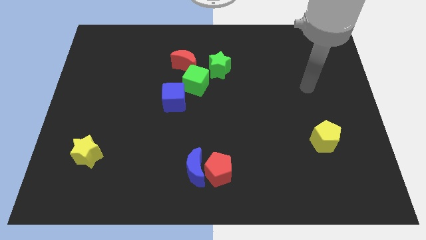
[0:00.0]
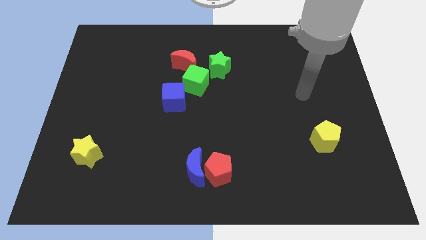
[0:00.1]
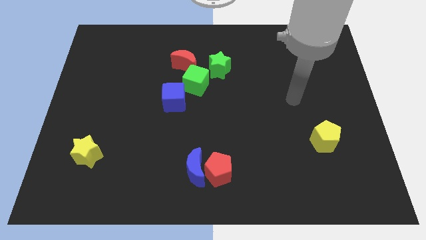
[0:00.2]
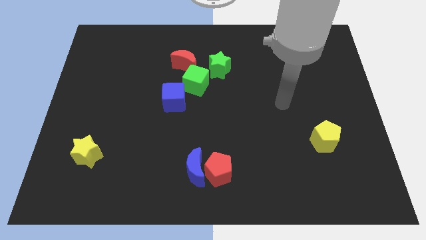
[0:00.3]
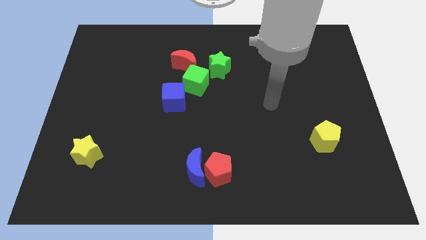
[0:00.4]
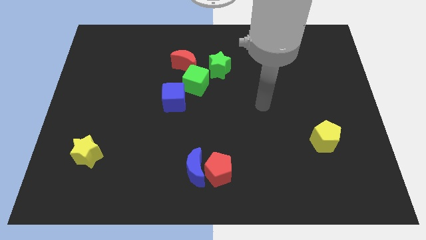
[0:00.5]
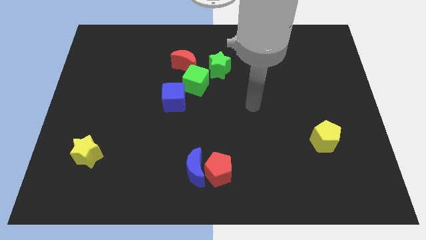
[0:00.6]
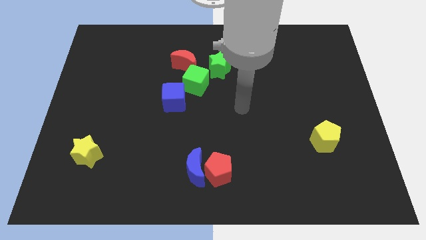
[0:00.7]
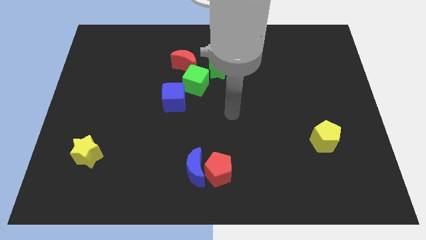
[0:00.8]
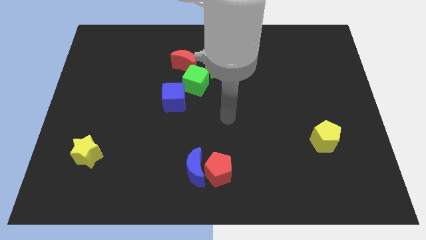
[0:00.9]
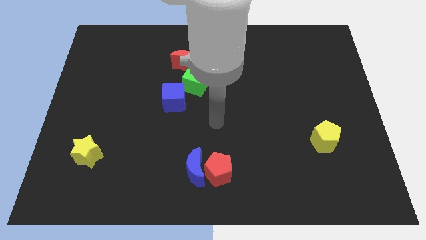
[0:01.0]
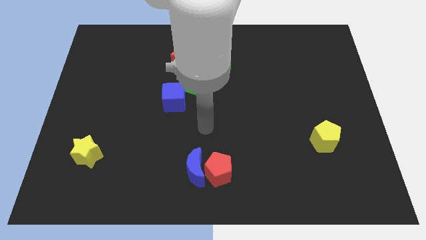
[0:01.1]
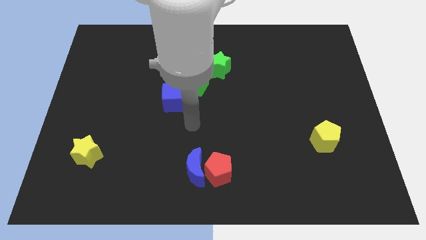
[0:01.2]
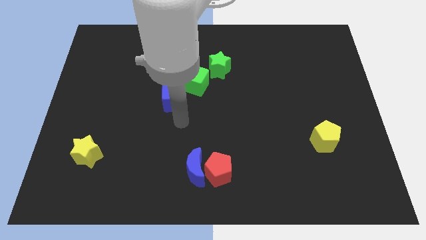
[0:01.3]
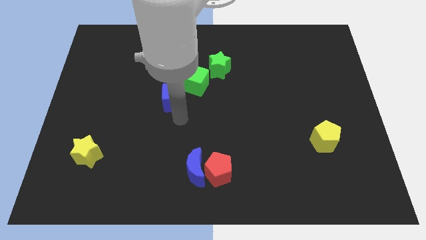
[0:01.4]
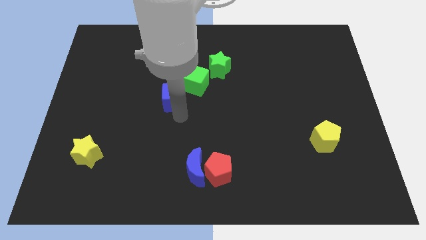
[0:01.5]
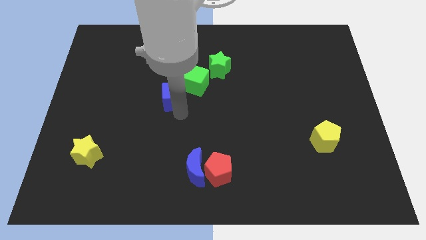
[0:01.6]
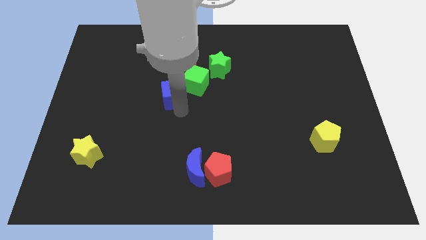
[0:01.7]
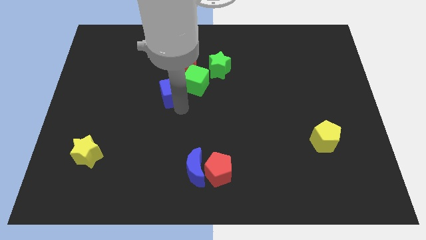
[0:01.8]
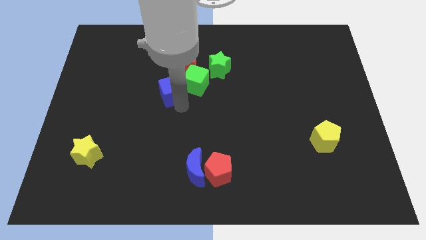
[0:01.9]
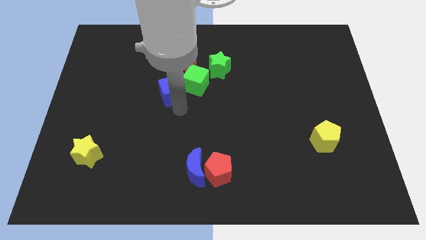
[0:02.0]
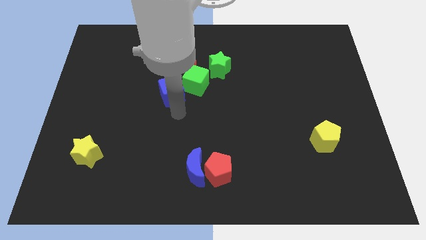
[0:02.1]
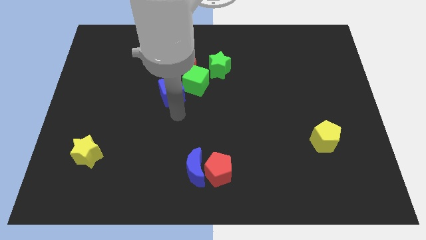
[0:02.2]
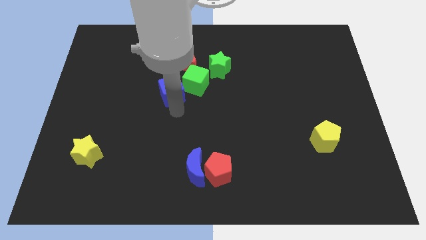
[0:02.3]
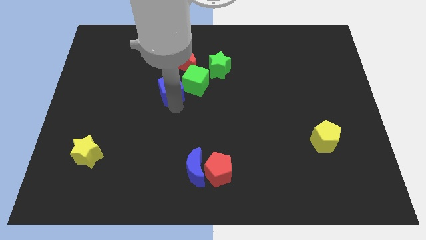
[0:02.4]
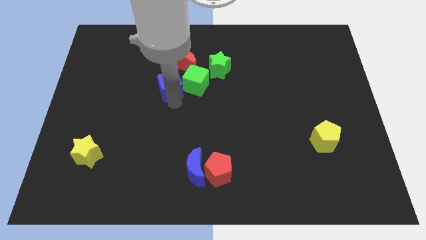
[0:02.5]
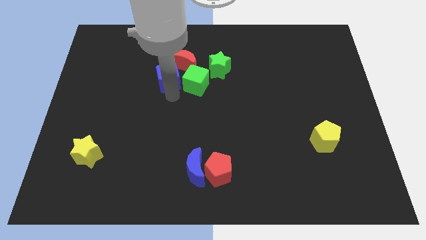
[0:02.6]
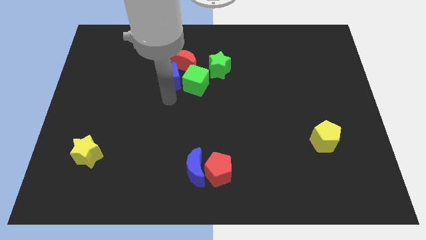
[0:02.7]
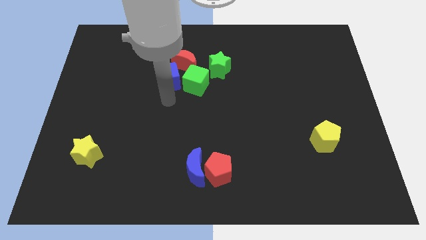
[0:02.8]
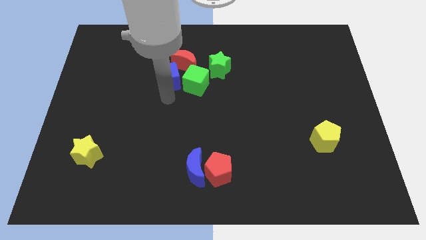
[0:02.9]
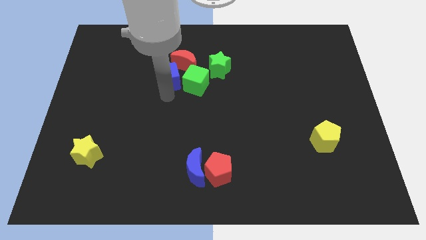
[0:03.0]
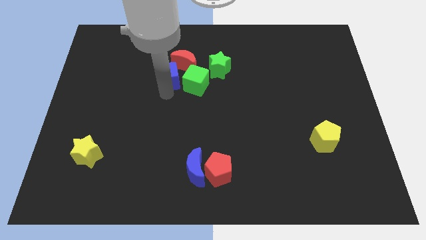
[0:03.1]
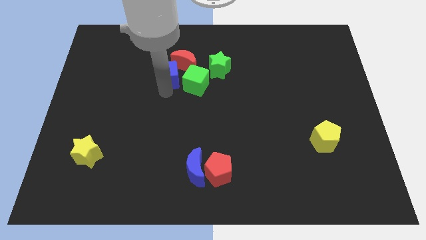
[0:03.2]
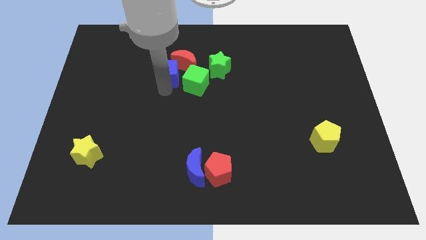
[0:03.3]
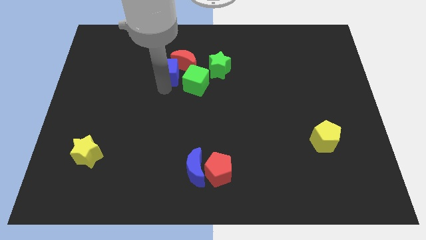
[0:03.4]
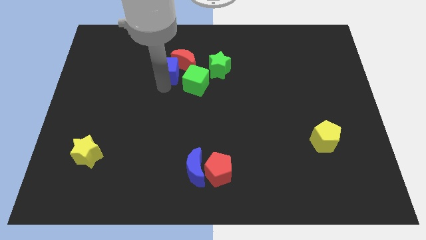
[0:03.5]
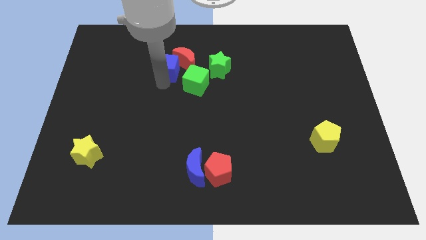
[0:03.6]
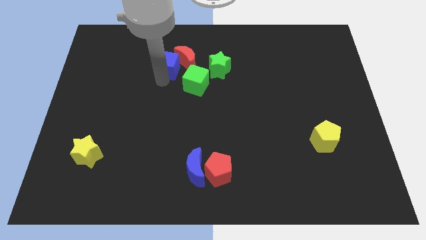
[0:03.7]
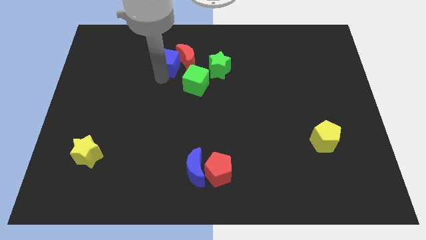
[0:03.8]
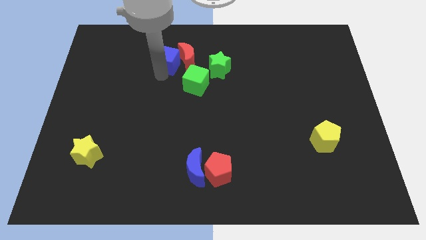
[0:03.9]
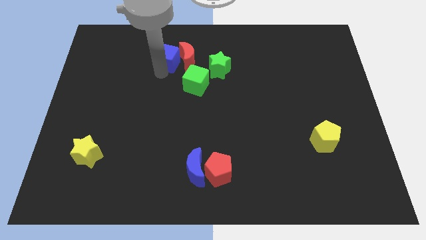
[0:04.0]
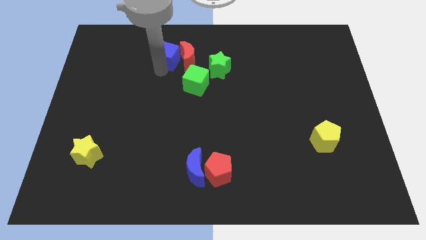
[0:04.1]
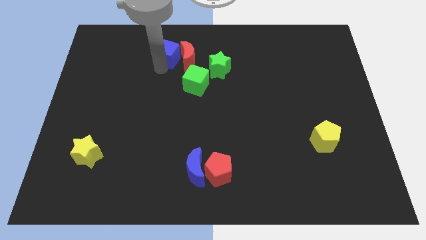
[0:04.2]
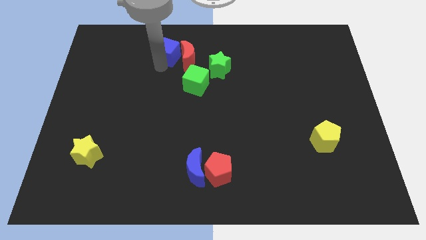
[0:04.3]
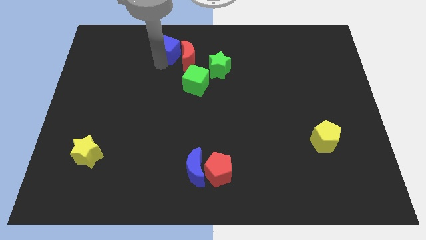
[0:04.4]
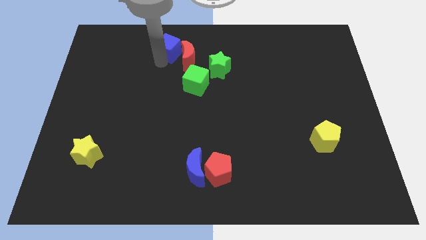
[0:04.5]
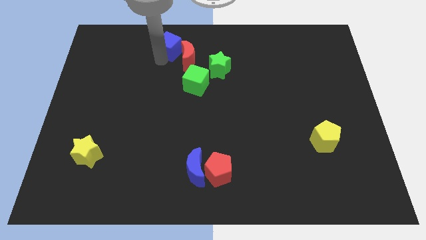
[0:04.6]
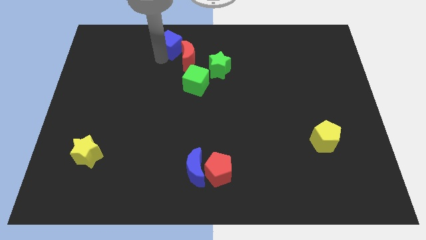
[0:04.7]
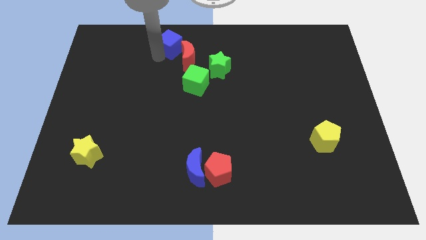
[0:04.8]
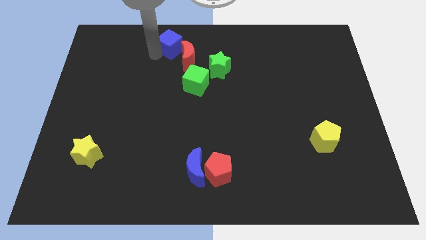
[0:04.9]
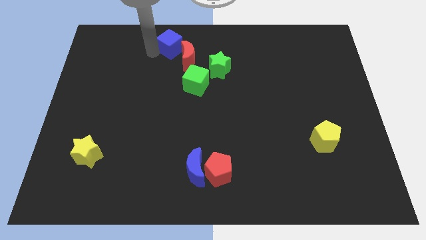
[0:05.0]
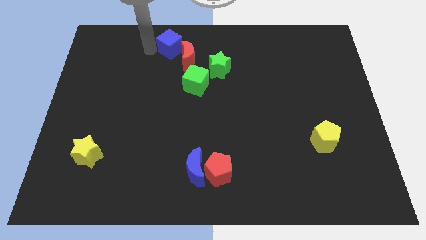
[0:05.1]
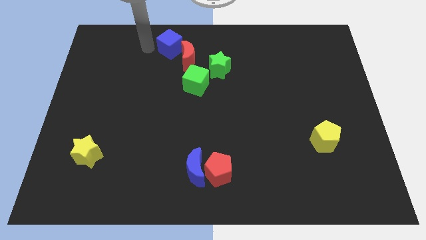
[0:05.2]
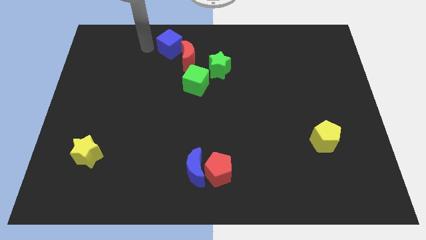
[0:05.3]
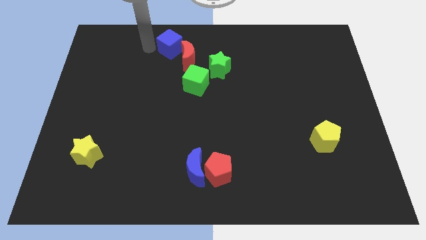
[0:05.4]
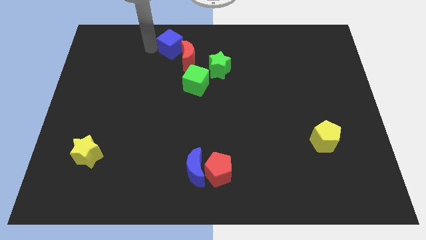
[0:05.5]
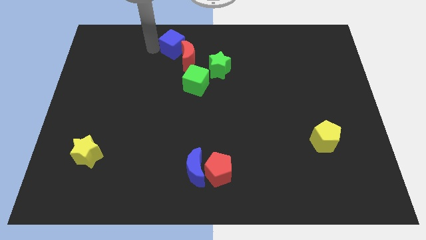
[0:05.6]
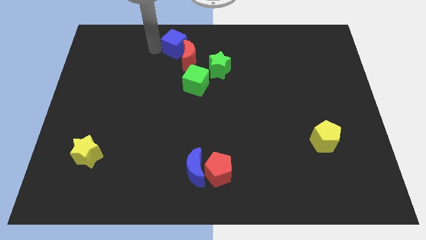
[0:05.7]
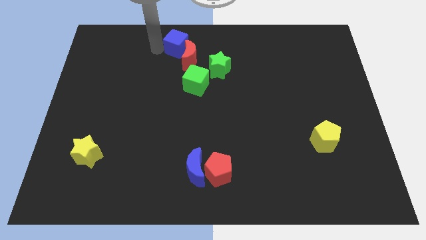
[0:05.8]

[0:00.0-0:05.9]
move the blue cube to the towards your base

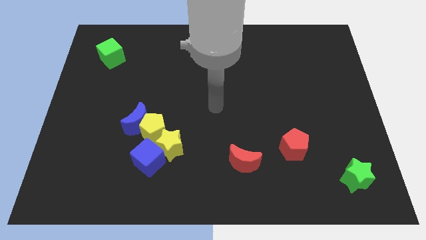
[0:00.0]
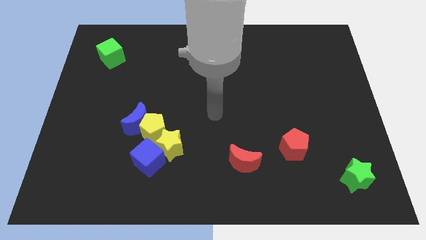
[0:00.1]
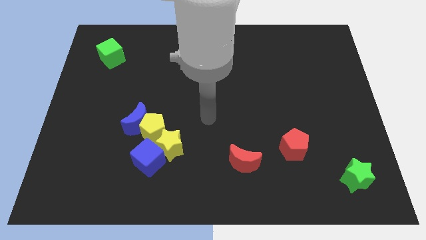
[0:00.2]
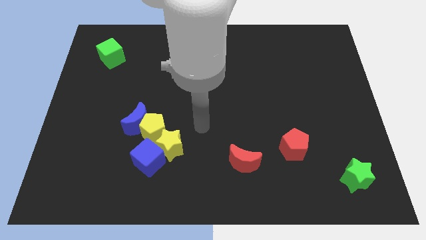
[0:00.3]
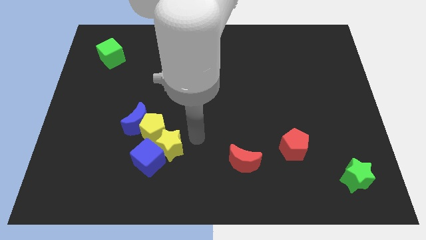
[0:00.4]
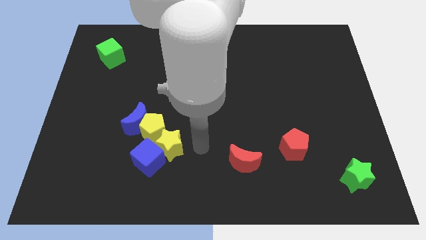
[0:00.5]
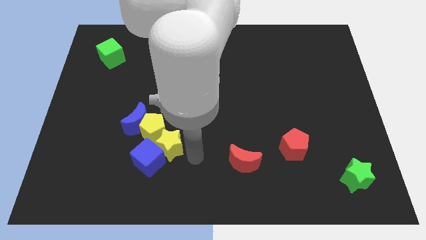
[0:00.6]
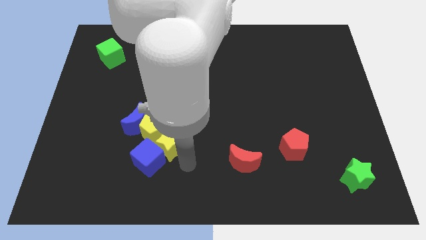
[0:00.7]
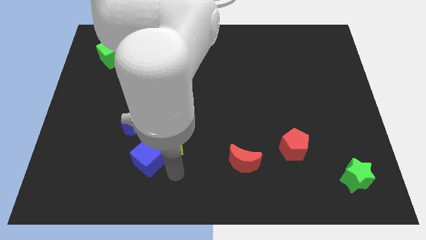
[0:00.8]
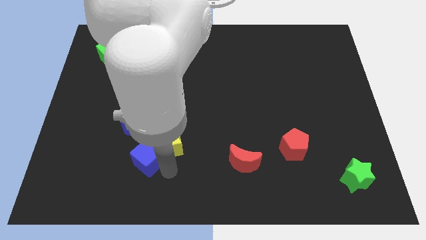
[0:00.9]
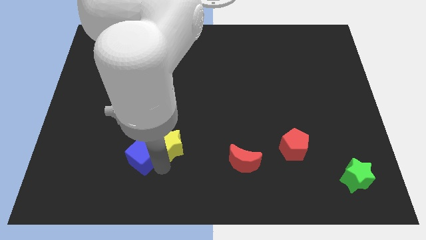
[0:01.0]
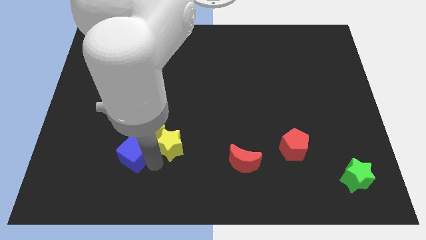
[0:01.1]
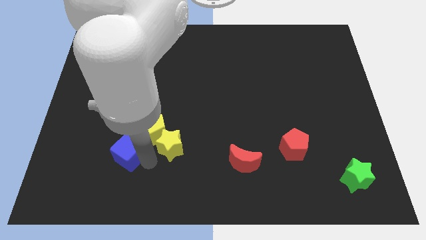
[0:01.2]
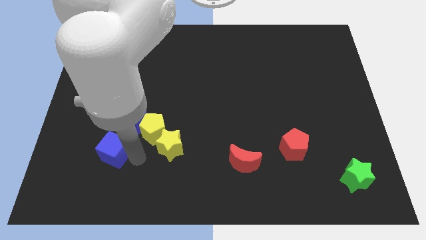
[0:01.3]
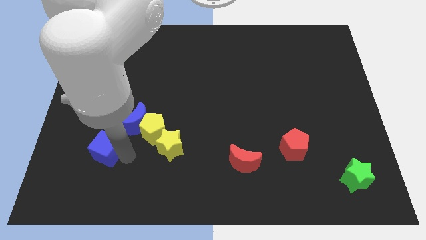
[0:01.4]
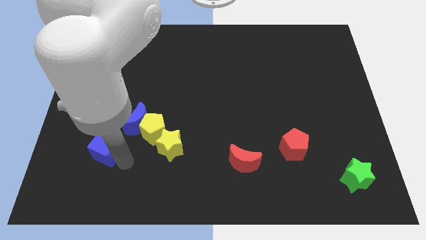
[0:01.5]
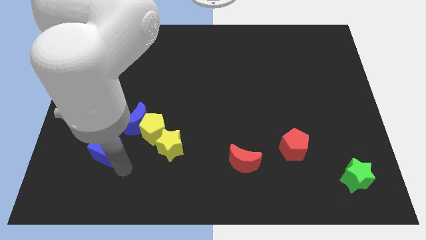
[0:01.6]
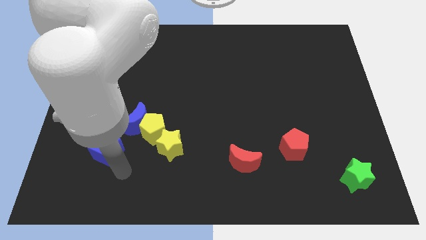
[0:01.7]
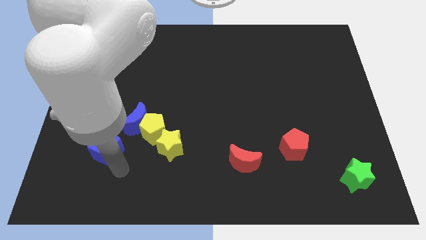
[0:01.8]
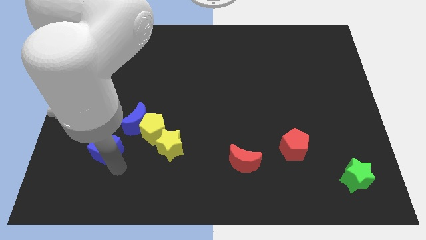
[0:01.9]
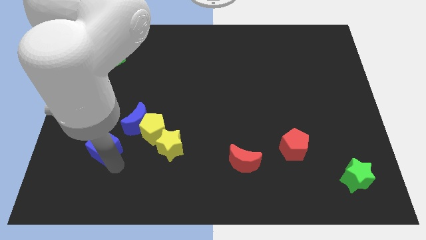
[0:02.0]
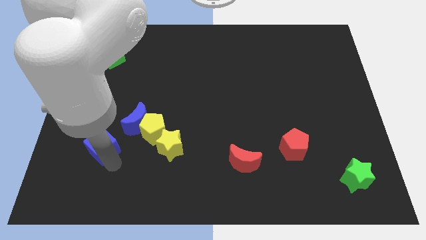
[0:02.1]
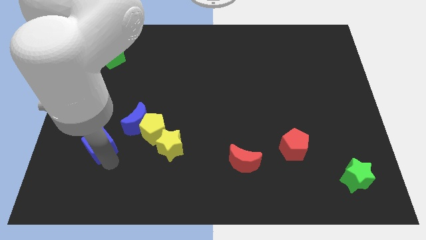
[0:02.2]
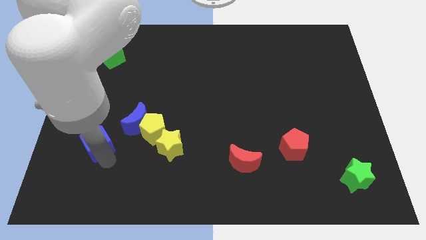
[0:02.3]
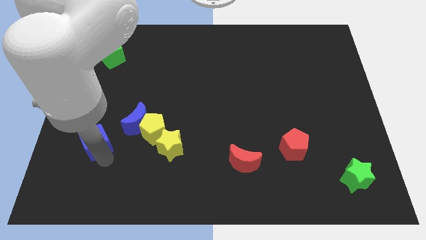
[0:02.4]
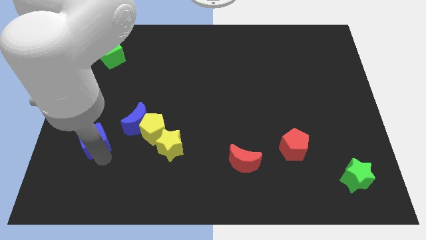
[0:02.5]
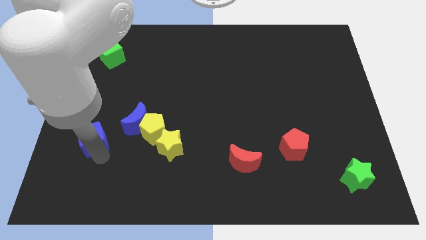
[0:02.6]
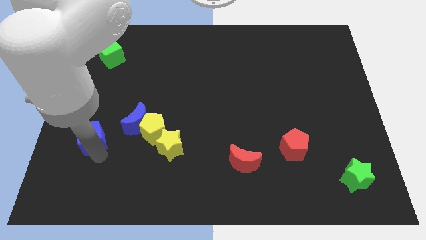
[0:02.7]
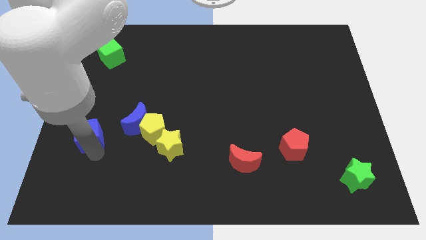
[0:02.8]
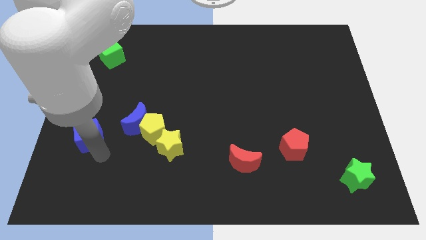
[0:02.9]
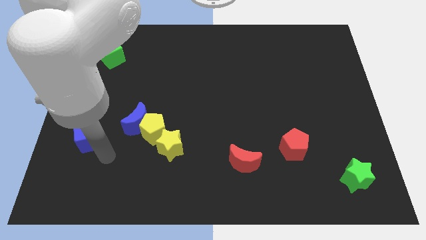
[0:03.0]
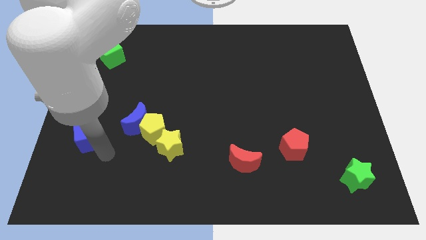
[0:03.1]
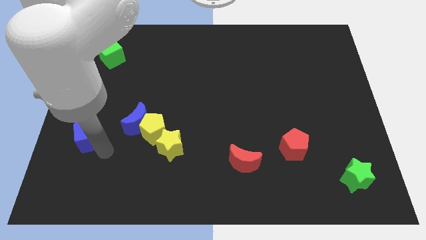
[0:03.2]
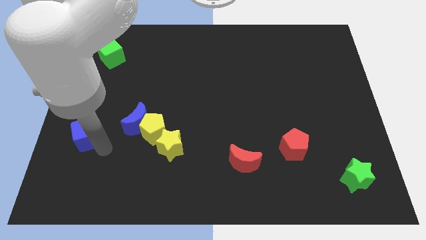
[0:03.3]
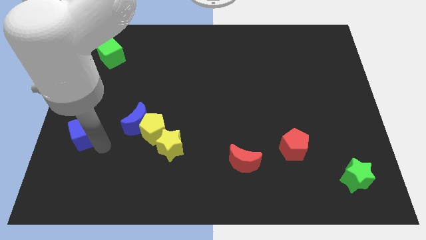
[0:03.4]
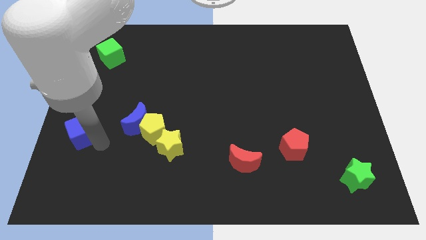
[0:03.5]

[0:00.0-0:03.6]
move the blue cube to the center left
